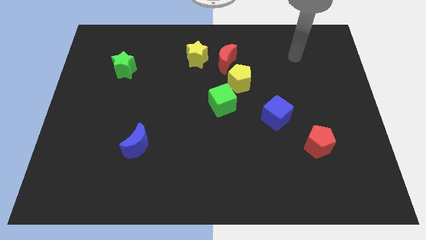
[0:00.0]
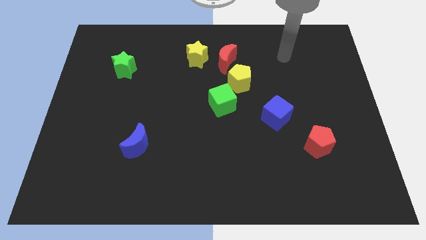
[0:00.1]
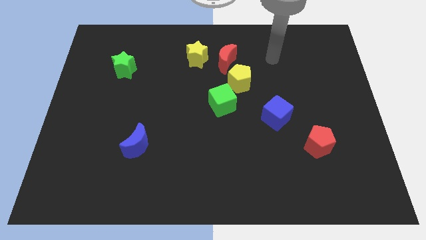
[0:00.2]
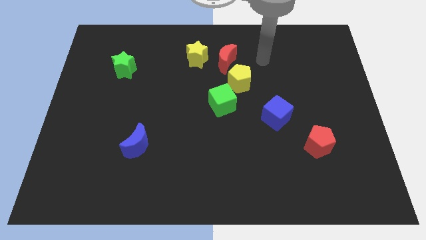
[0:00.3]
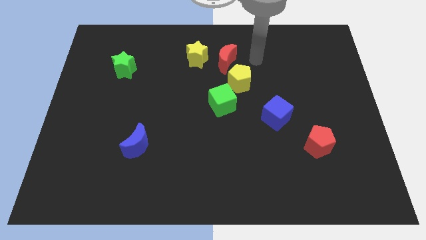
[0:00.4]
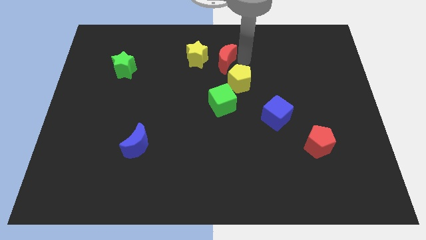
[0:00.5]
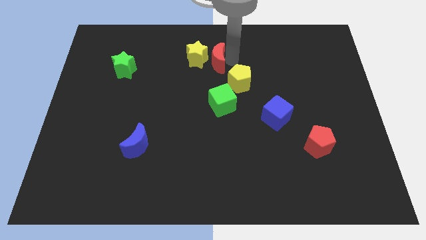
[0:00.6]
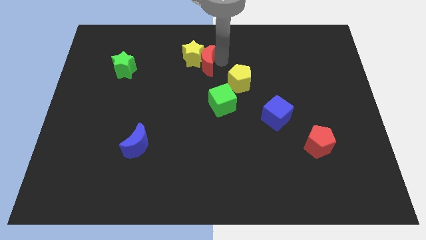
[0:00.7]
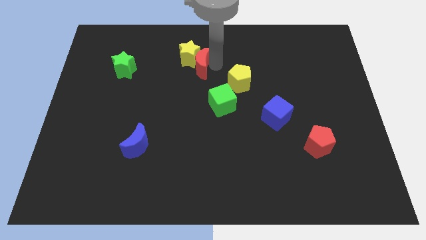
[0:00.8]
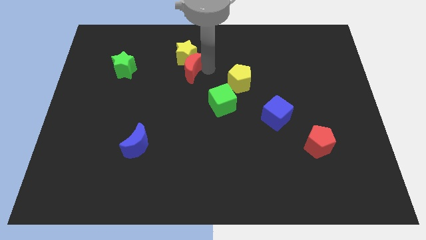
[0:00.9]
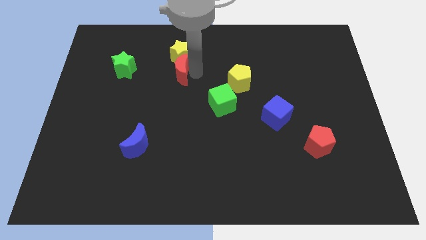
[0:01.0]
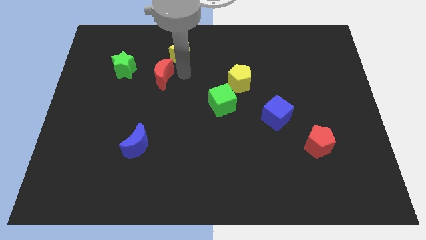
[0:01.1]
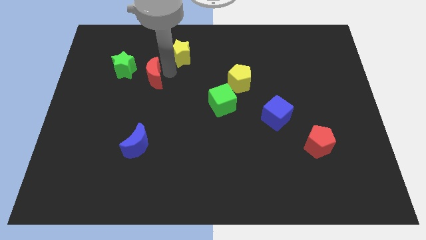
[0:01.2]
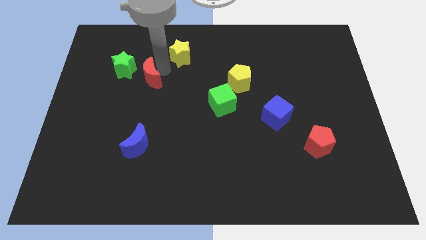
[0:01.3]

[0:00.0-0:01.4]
move the yellow star away from the red moon

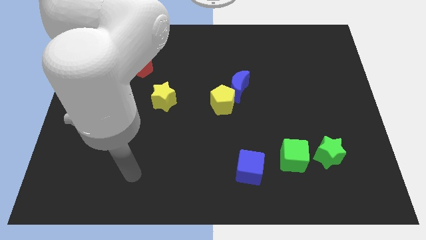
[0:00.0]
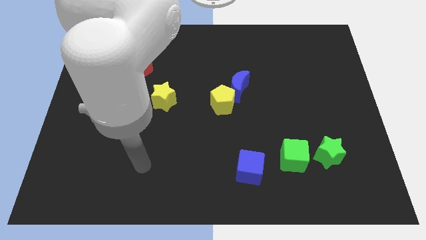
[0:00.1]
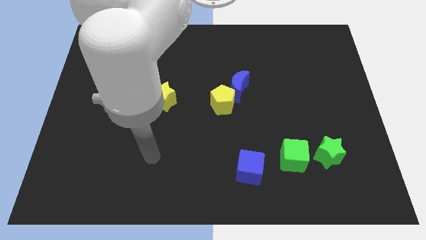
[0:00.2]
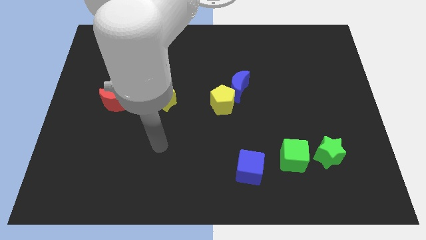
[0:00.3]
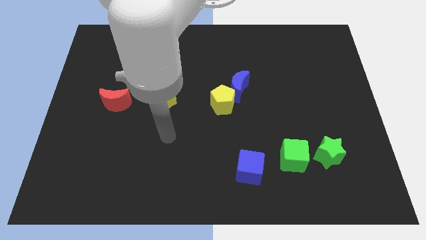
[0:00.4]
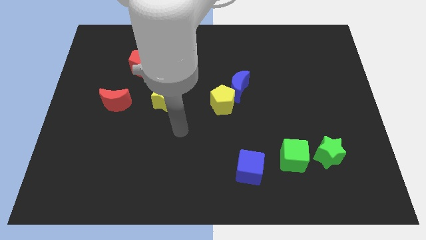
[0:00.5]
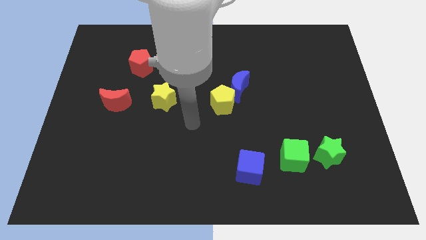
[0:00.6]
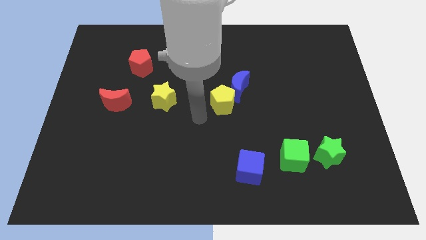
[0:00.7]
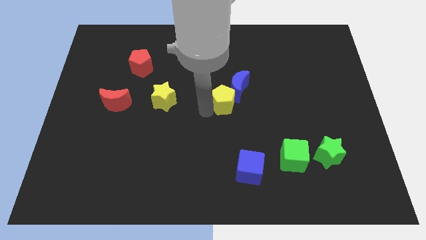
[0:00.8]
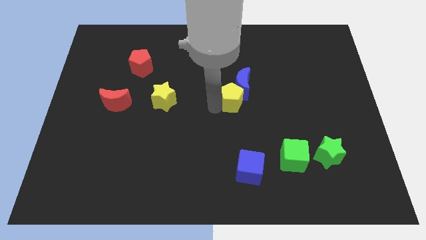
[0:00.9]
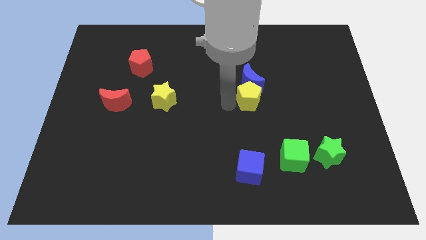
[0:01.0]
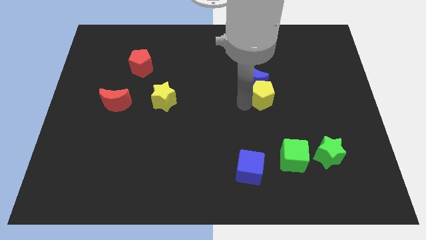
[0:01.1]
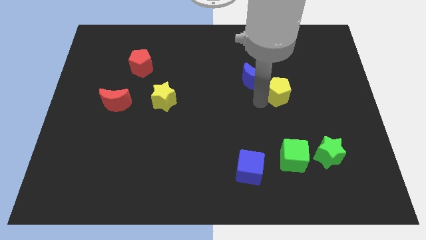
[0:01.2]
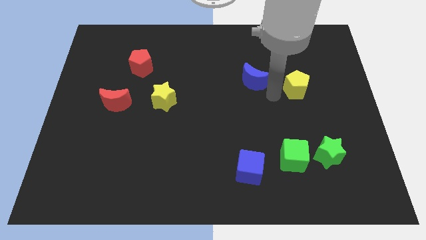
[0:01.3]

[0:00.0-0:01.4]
move the blue moon away from the yellow pentagon

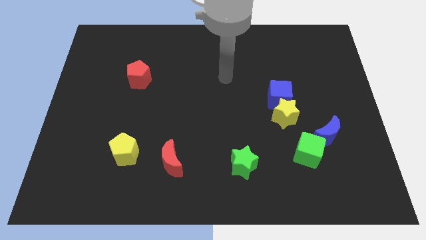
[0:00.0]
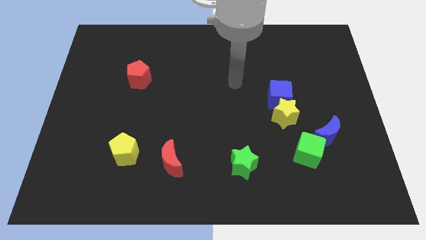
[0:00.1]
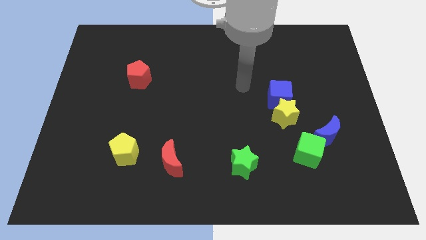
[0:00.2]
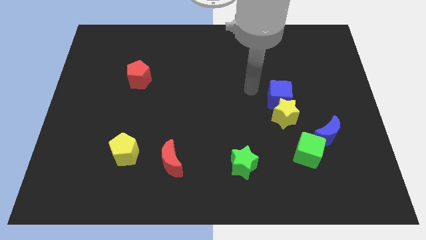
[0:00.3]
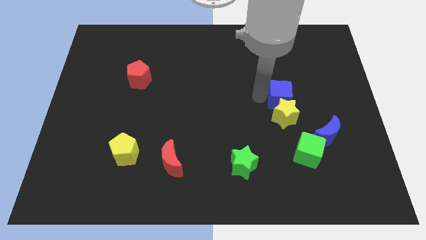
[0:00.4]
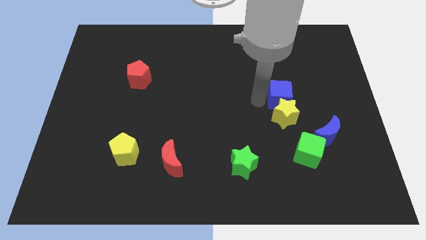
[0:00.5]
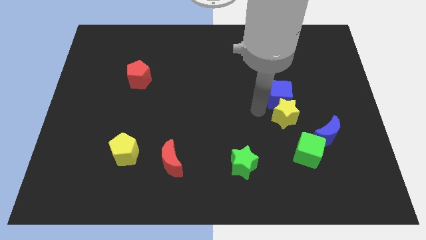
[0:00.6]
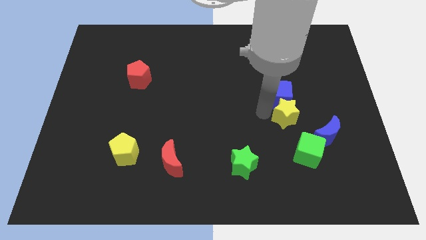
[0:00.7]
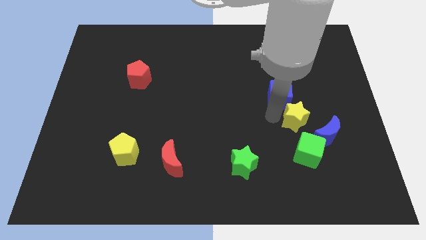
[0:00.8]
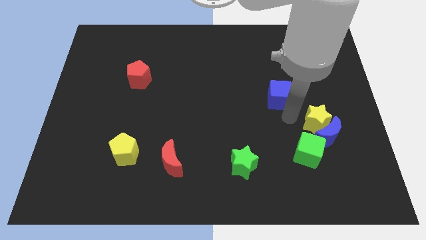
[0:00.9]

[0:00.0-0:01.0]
move the blue cube away from the yellow star

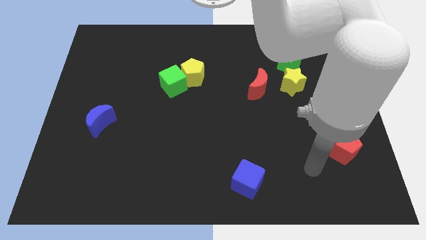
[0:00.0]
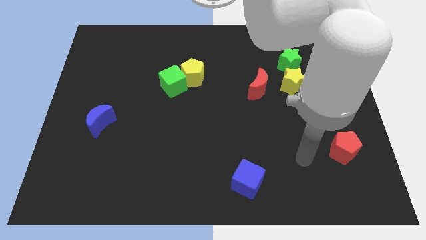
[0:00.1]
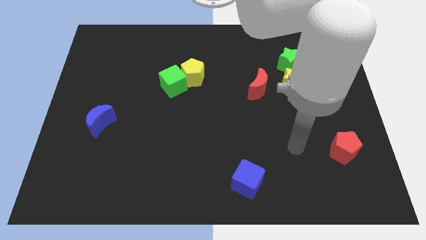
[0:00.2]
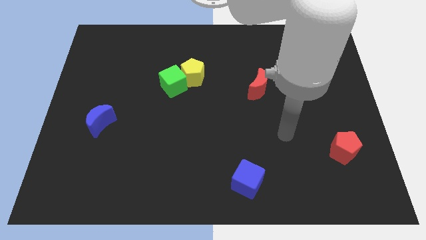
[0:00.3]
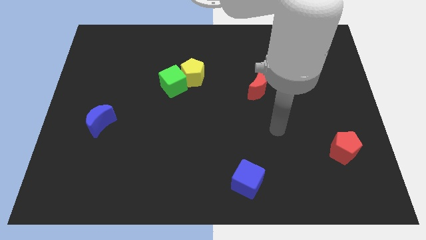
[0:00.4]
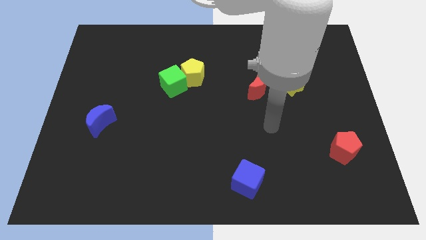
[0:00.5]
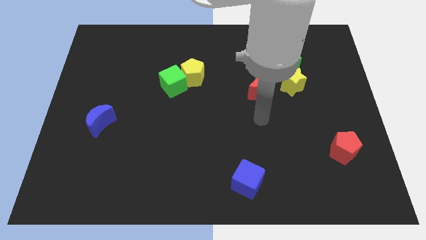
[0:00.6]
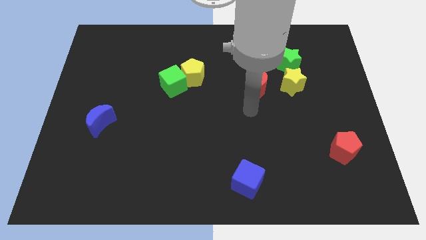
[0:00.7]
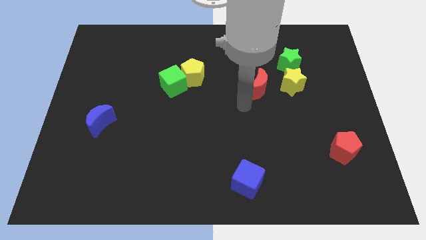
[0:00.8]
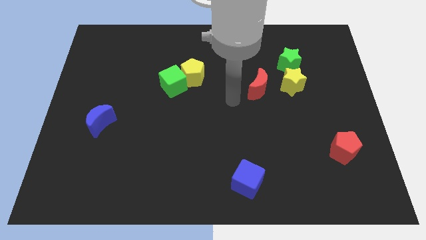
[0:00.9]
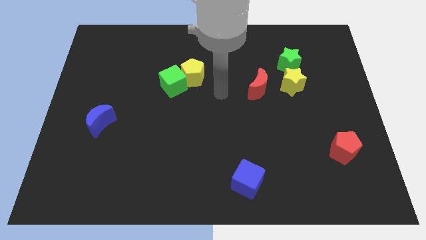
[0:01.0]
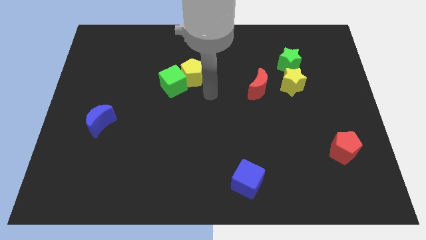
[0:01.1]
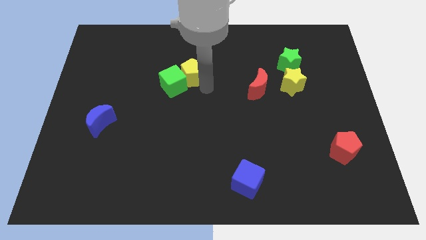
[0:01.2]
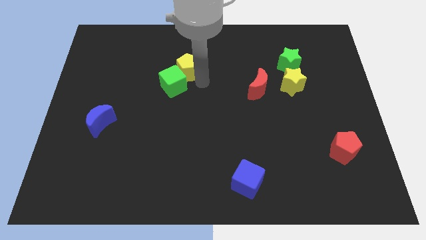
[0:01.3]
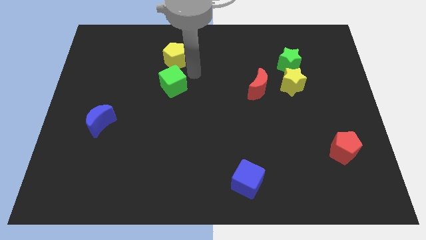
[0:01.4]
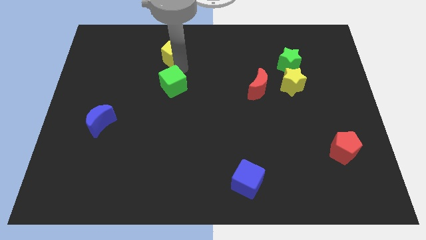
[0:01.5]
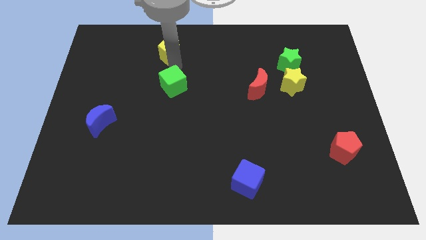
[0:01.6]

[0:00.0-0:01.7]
pull the green cube apart from the yellow pentagon

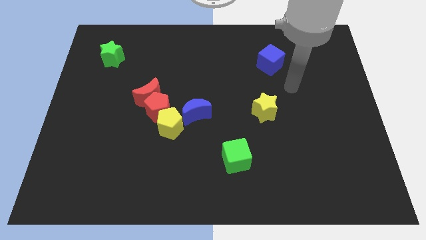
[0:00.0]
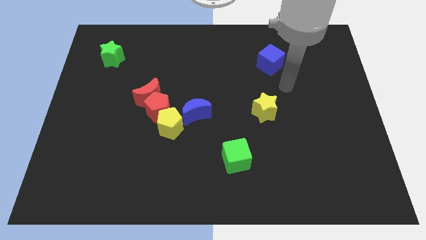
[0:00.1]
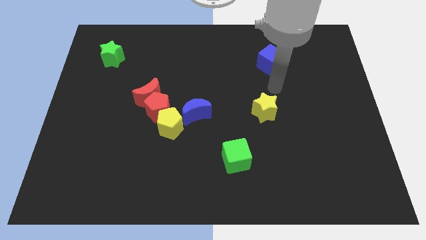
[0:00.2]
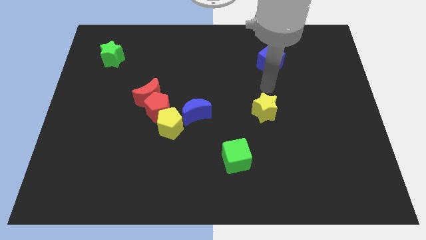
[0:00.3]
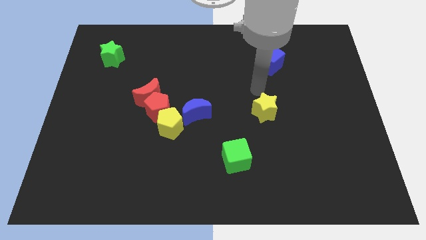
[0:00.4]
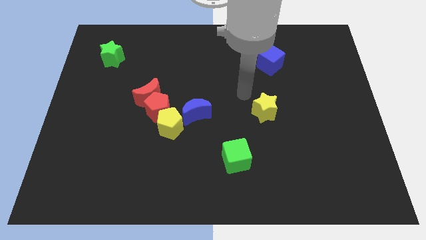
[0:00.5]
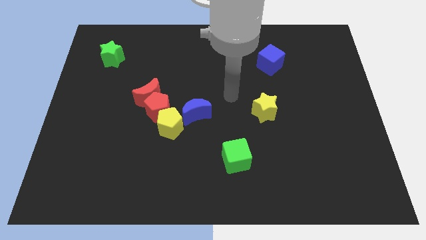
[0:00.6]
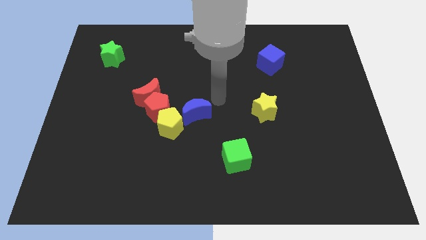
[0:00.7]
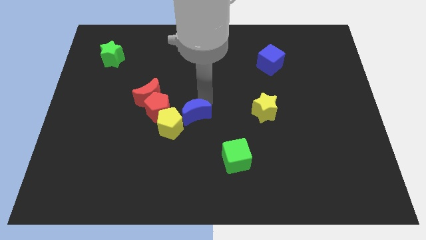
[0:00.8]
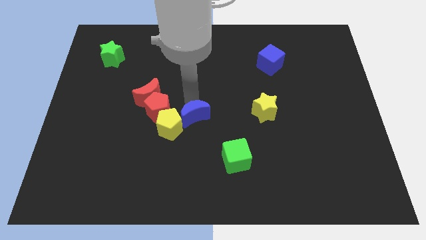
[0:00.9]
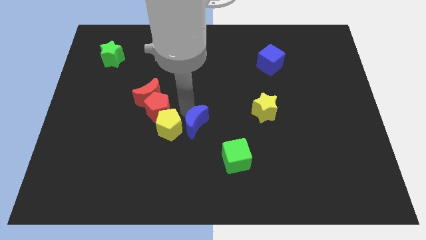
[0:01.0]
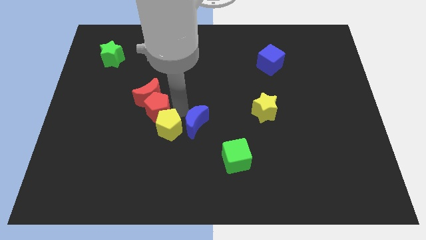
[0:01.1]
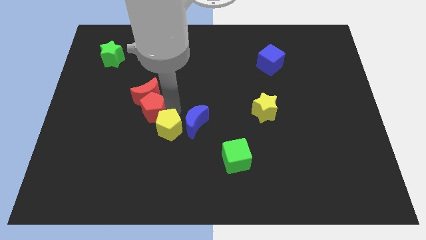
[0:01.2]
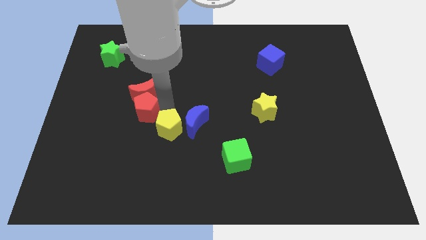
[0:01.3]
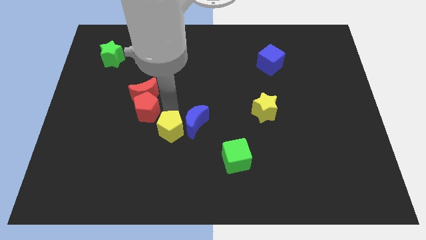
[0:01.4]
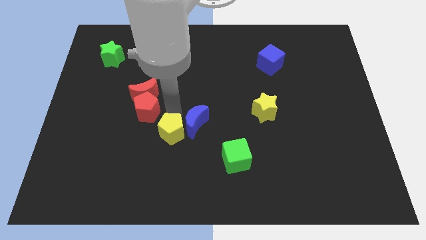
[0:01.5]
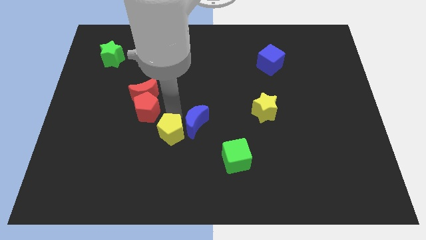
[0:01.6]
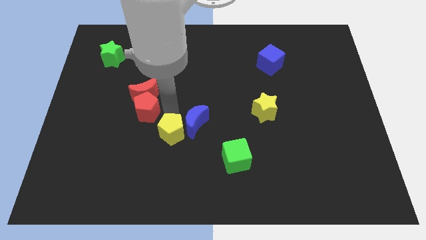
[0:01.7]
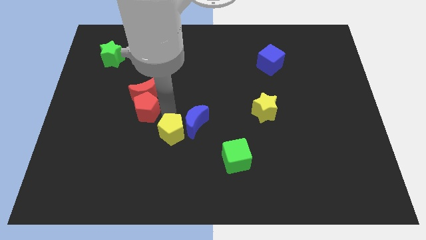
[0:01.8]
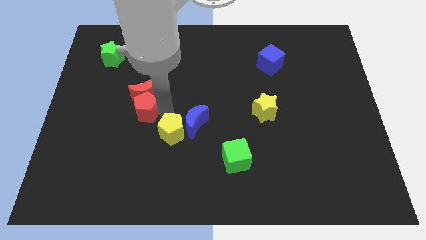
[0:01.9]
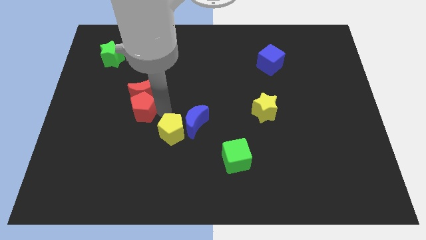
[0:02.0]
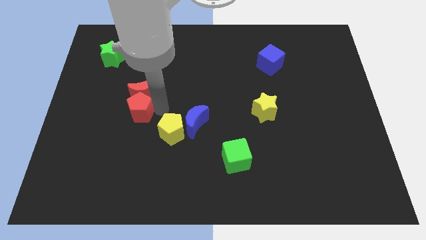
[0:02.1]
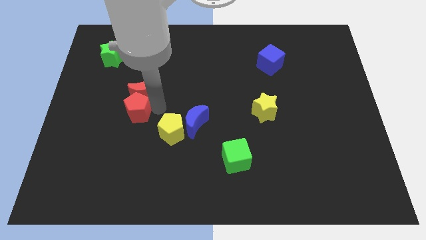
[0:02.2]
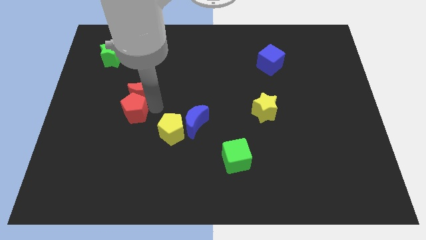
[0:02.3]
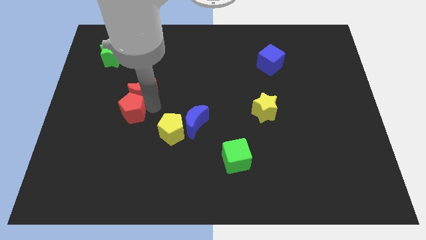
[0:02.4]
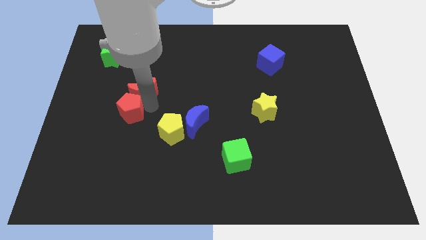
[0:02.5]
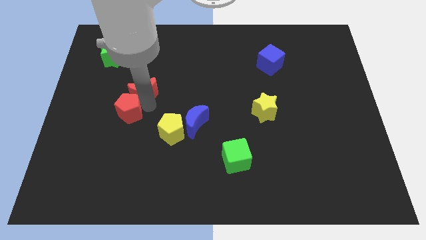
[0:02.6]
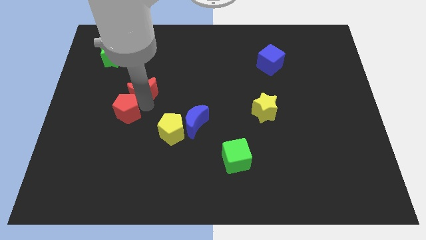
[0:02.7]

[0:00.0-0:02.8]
separate the red pentagon from the red moon, yellow pentagon, and blue moon

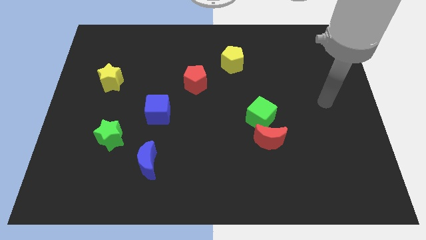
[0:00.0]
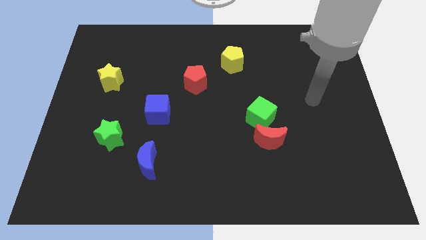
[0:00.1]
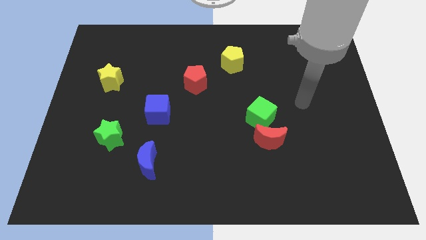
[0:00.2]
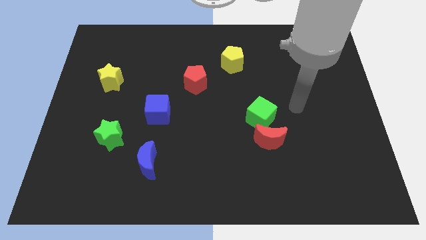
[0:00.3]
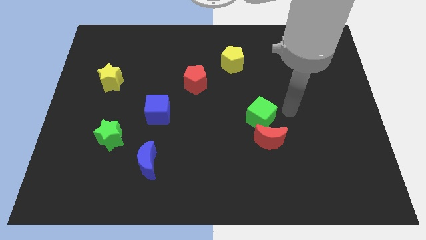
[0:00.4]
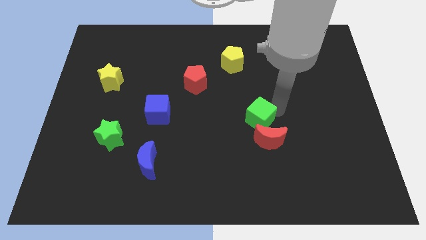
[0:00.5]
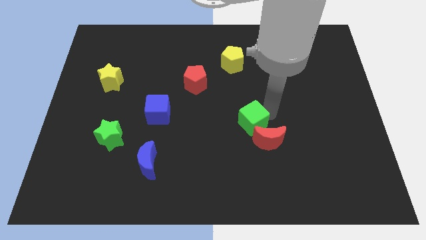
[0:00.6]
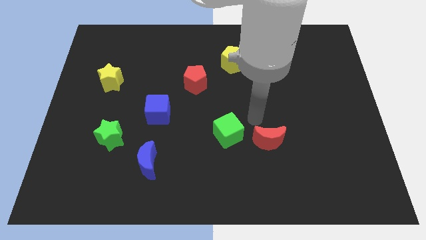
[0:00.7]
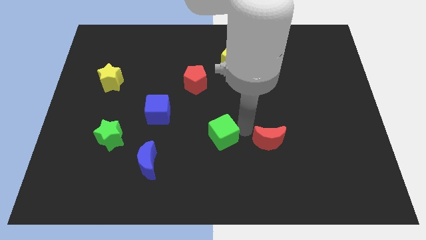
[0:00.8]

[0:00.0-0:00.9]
pull the red moon apart from the green cube

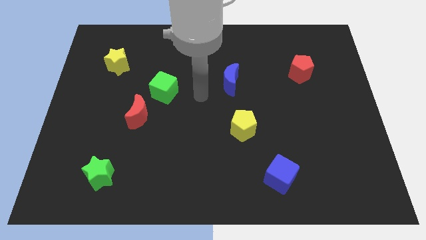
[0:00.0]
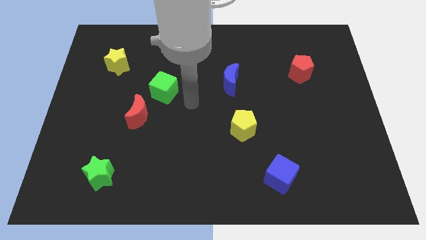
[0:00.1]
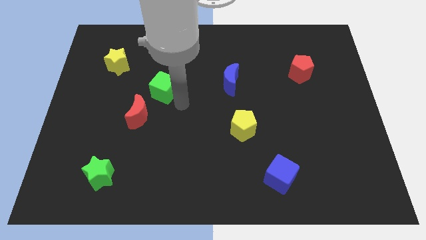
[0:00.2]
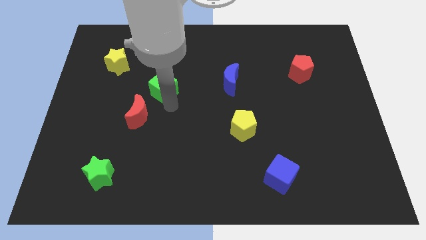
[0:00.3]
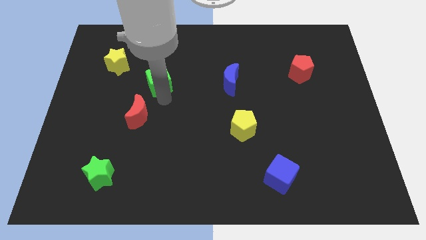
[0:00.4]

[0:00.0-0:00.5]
move the red moon away from the green cube
